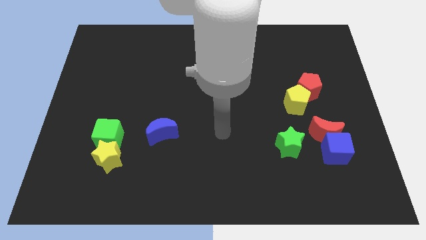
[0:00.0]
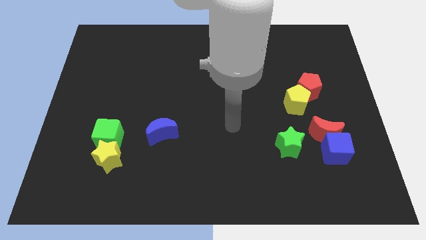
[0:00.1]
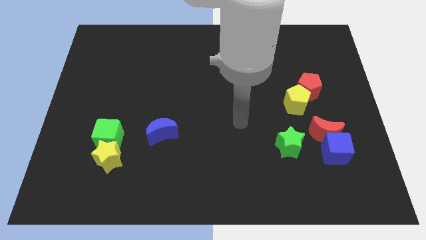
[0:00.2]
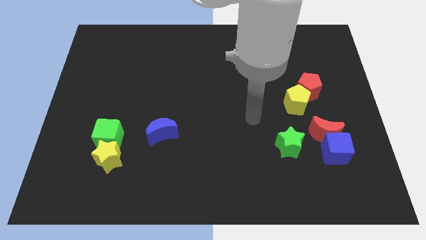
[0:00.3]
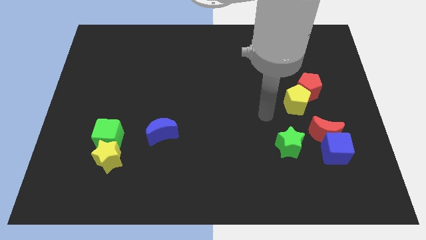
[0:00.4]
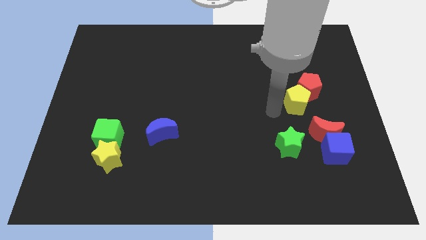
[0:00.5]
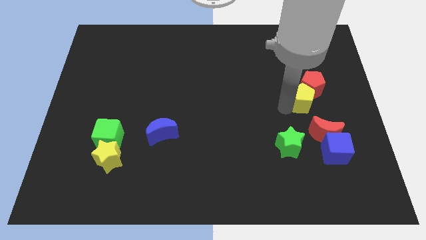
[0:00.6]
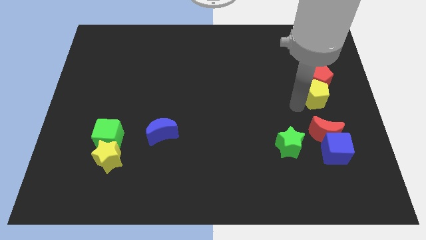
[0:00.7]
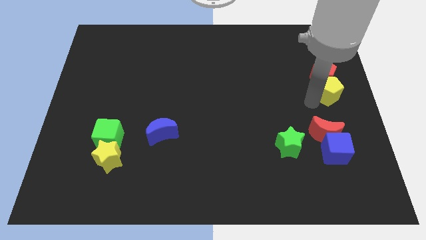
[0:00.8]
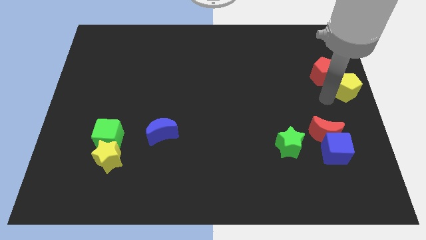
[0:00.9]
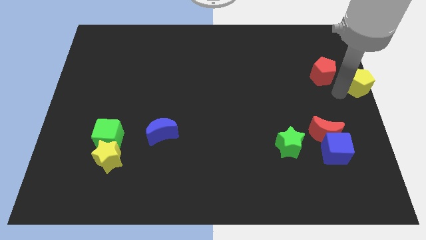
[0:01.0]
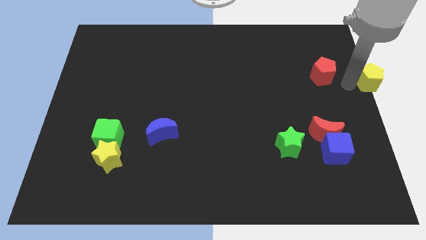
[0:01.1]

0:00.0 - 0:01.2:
move the red pentagon away from the yellow pentagon

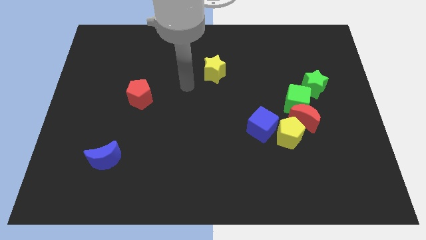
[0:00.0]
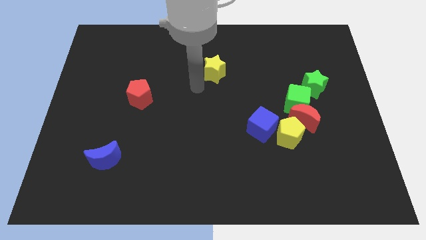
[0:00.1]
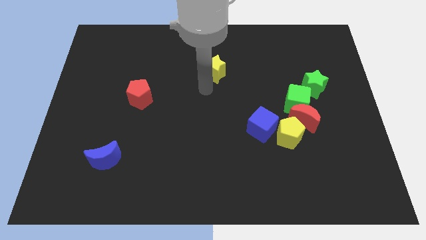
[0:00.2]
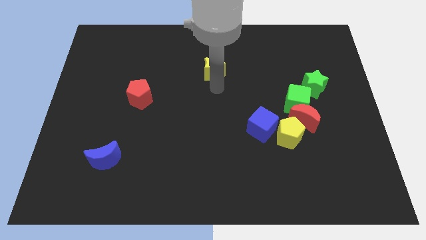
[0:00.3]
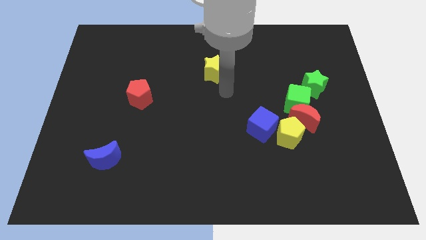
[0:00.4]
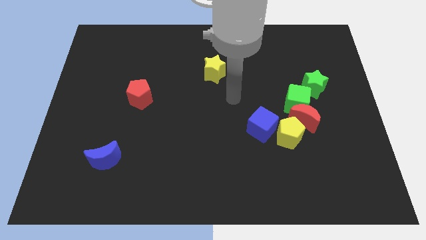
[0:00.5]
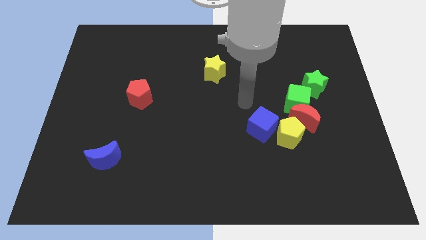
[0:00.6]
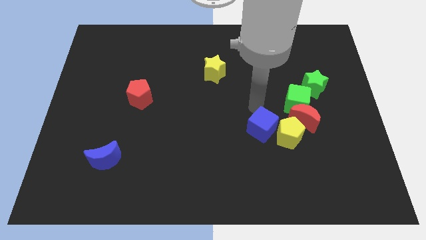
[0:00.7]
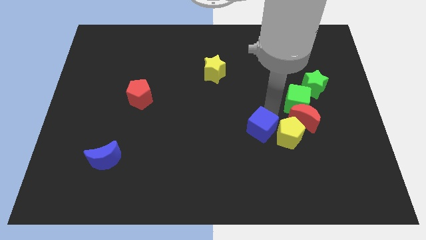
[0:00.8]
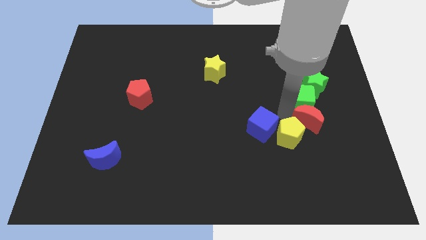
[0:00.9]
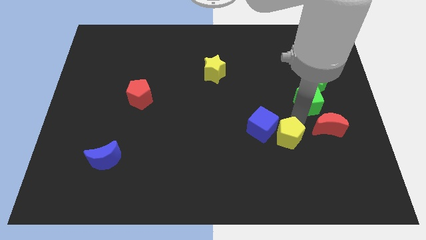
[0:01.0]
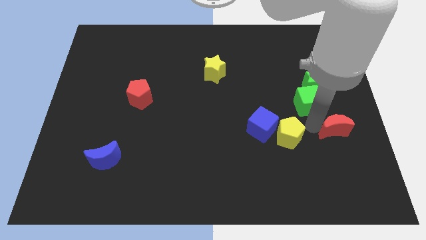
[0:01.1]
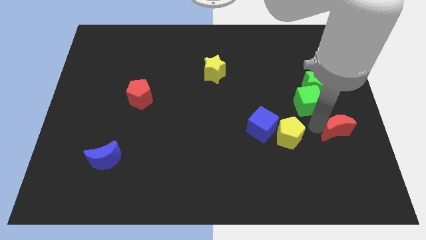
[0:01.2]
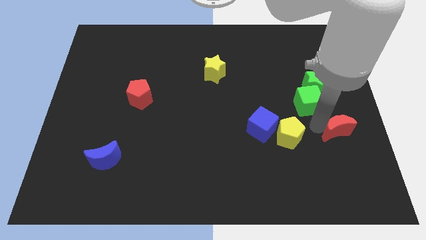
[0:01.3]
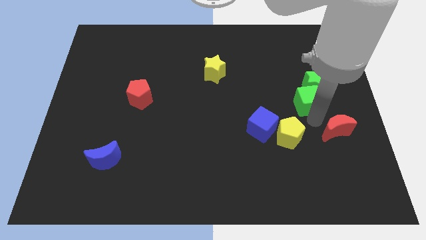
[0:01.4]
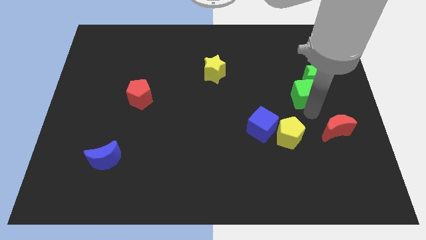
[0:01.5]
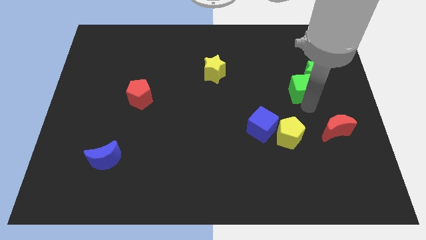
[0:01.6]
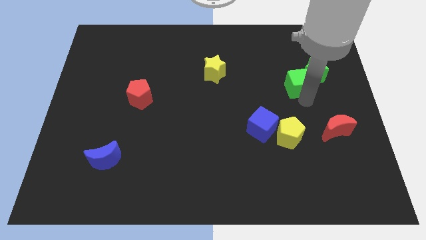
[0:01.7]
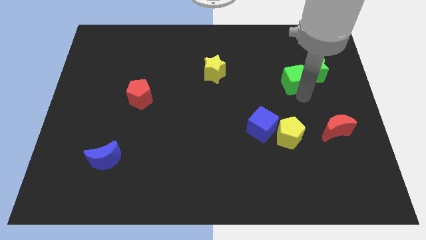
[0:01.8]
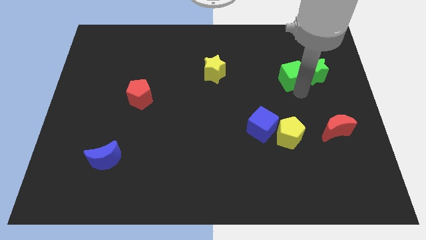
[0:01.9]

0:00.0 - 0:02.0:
move the green cube away from the red moon, green star, and yellow pentagon

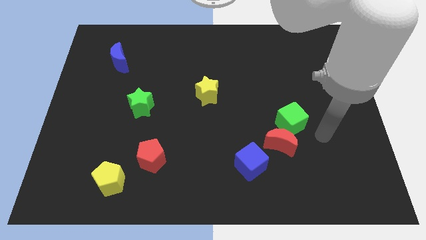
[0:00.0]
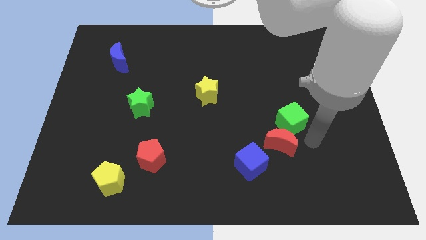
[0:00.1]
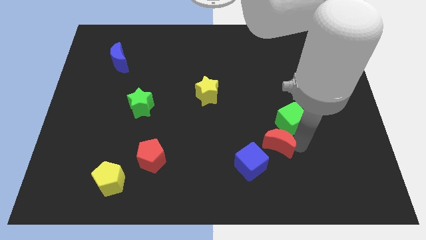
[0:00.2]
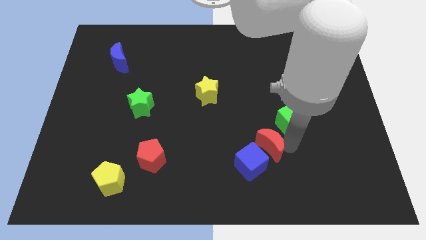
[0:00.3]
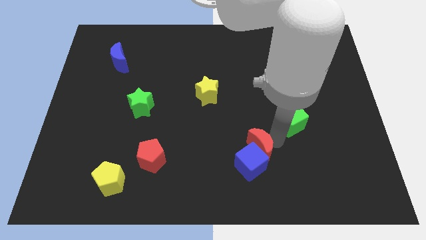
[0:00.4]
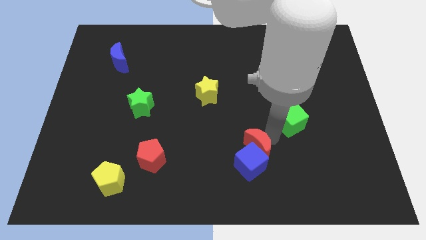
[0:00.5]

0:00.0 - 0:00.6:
separate the green cube from the red moon

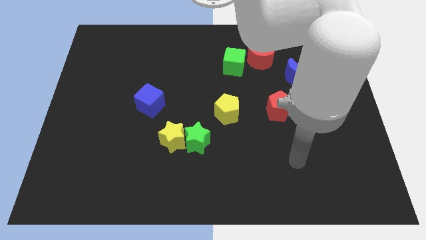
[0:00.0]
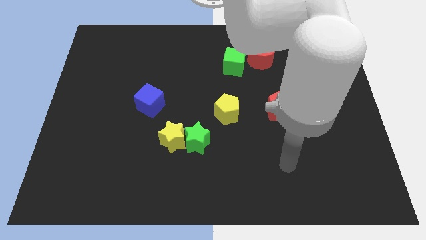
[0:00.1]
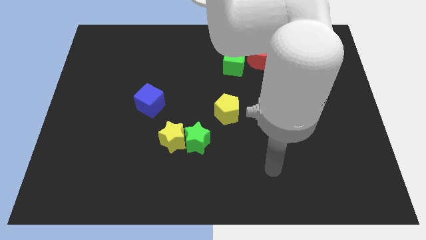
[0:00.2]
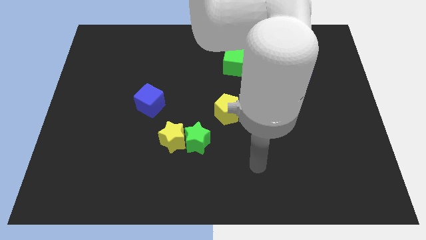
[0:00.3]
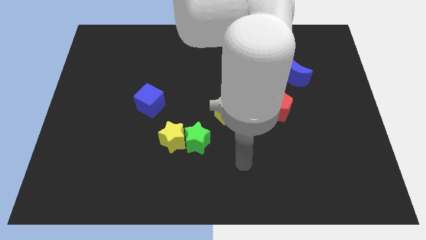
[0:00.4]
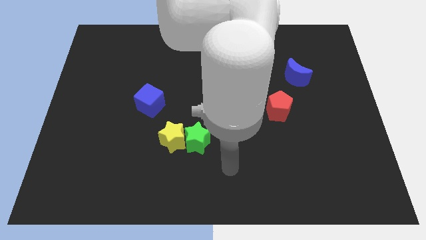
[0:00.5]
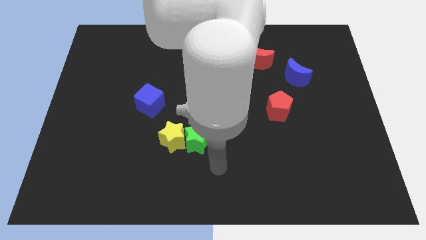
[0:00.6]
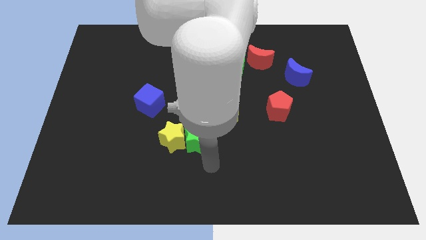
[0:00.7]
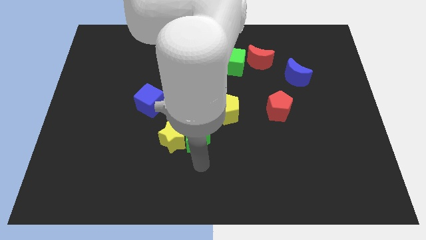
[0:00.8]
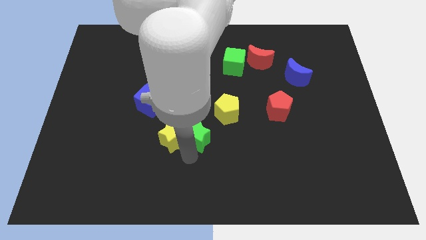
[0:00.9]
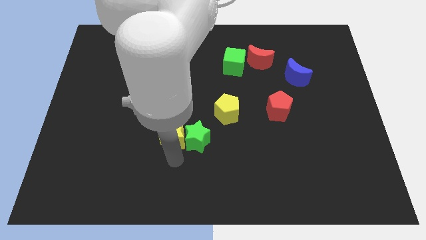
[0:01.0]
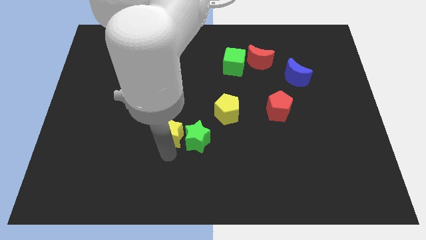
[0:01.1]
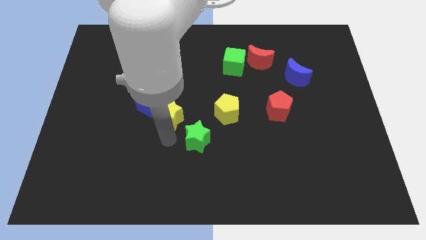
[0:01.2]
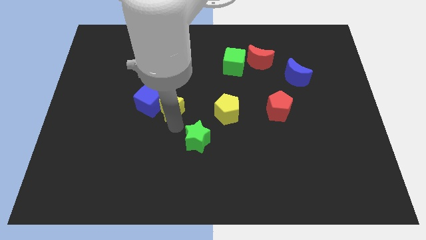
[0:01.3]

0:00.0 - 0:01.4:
separate the green star from the yellow star

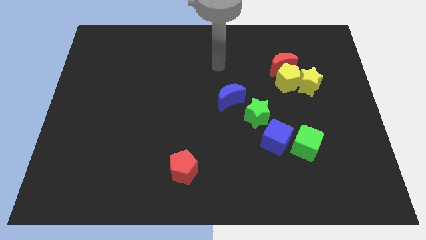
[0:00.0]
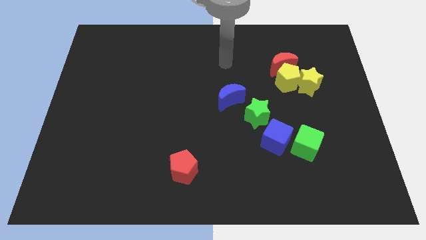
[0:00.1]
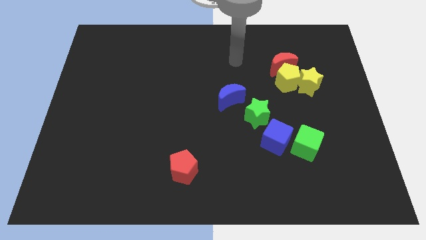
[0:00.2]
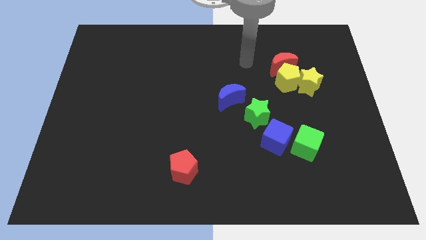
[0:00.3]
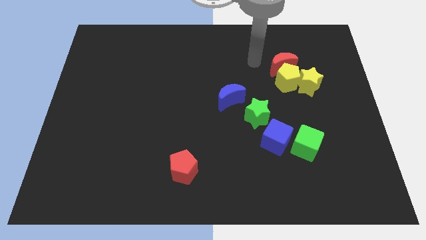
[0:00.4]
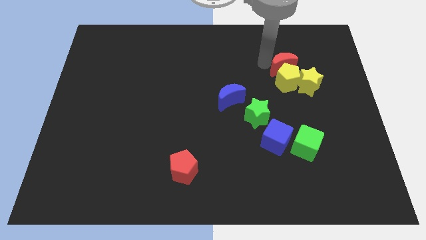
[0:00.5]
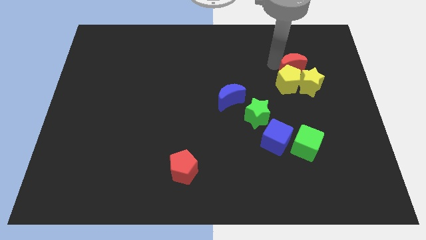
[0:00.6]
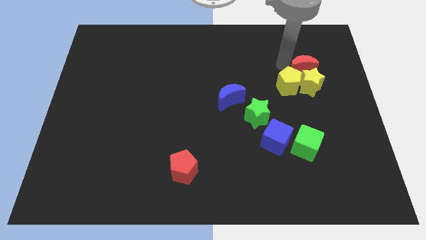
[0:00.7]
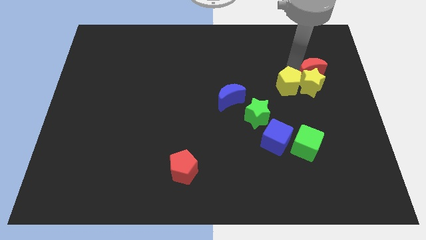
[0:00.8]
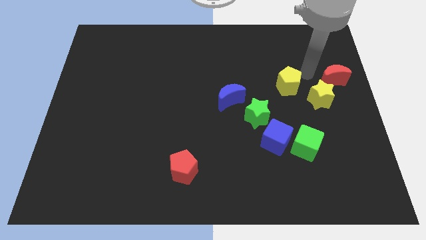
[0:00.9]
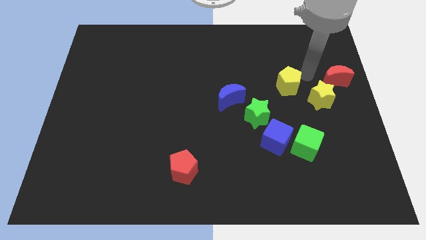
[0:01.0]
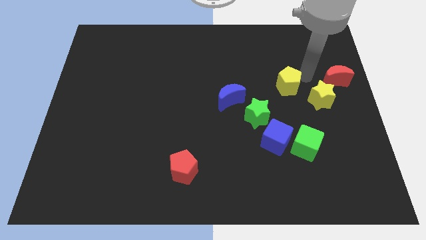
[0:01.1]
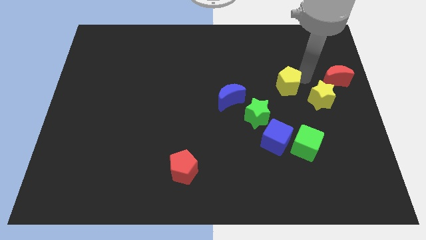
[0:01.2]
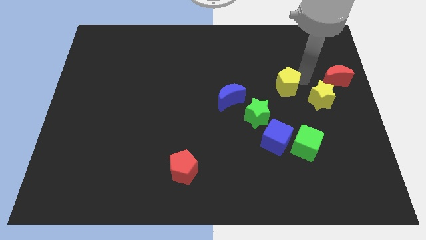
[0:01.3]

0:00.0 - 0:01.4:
separate the yellow pentagon from the red moon and yellow star

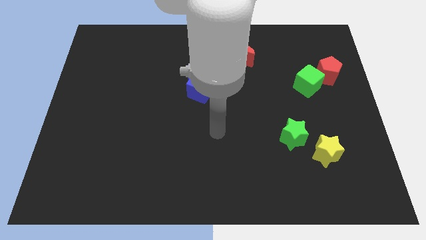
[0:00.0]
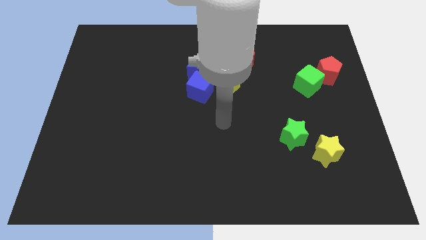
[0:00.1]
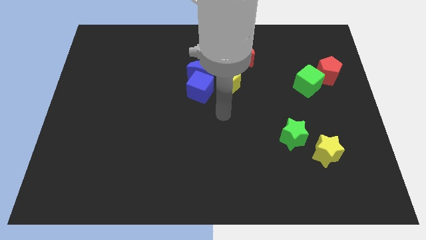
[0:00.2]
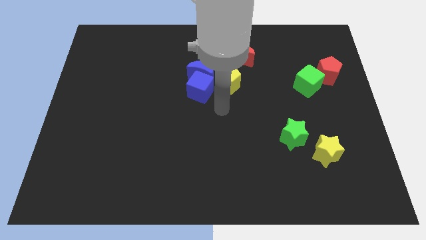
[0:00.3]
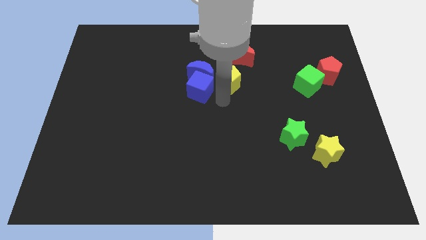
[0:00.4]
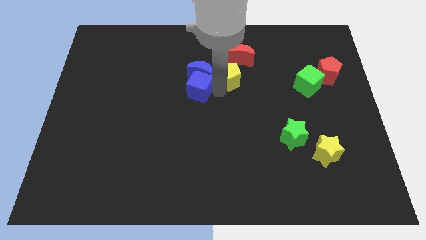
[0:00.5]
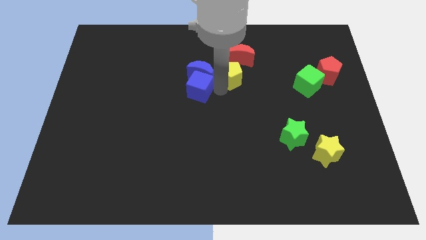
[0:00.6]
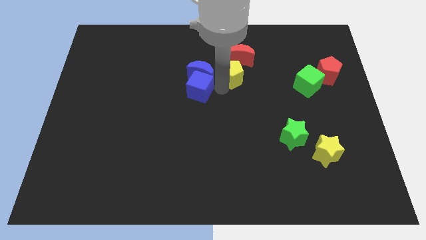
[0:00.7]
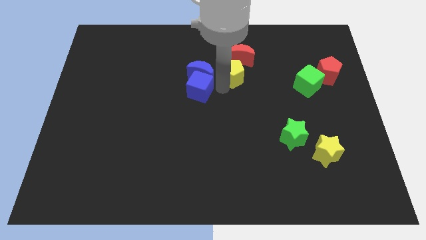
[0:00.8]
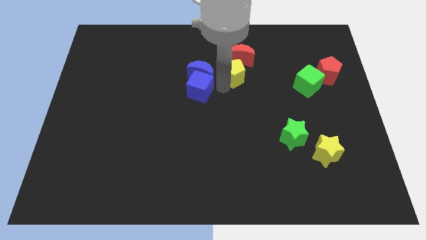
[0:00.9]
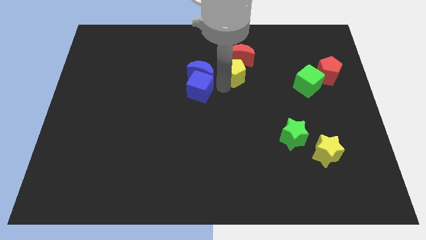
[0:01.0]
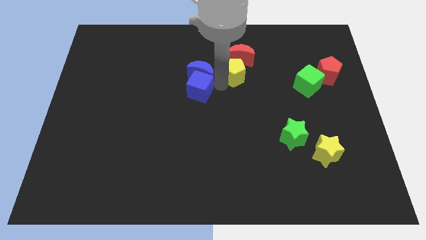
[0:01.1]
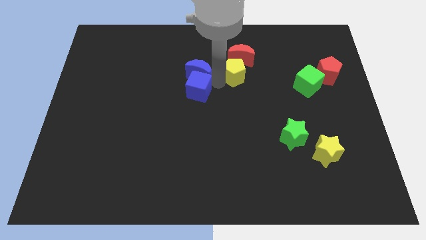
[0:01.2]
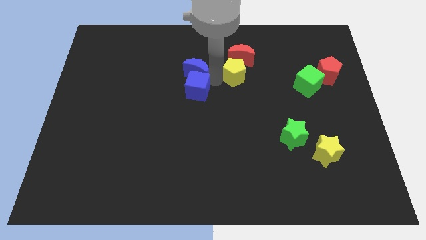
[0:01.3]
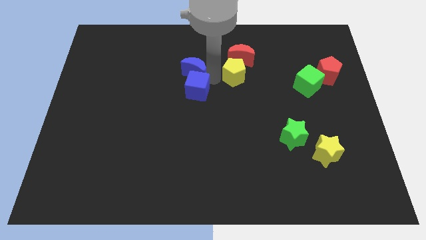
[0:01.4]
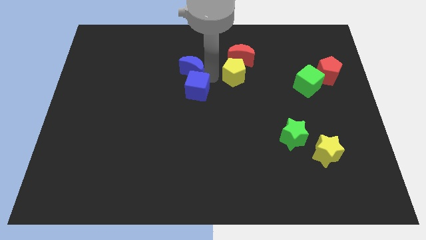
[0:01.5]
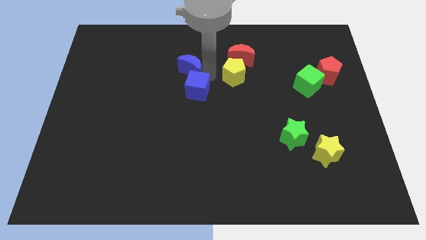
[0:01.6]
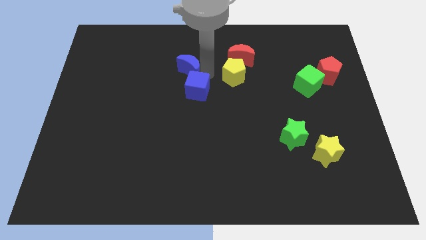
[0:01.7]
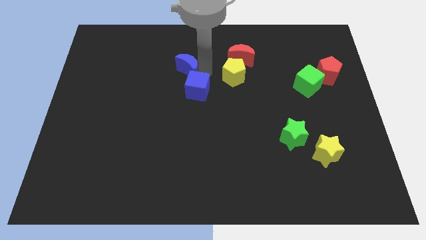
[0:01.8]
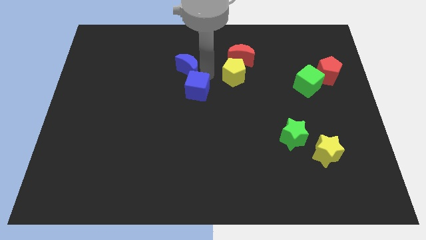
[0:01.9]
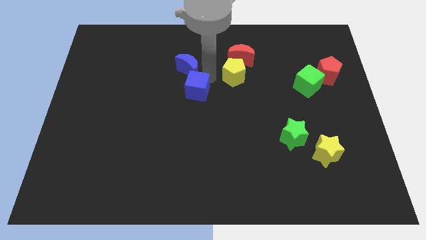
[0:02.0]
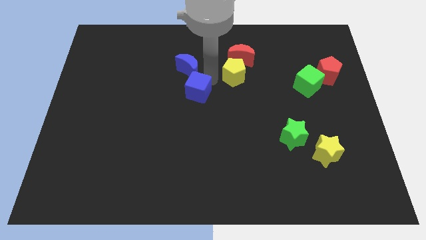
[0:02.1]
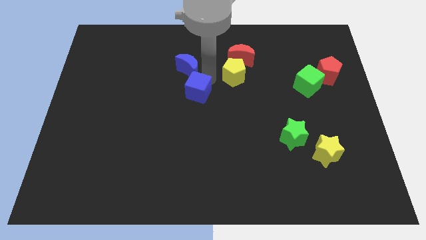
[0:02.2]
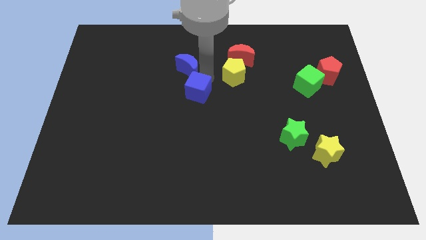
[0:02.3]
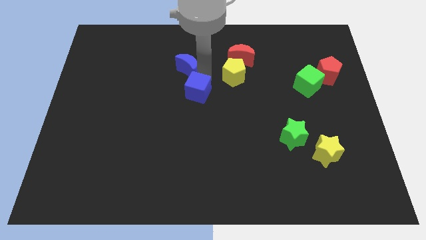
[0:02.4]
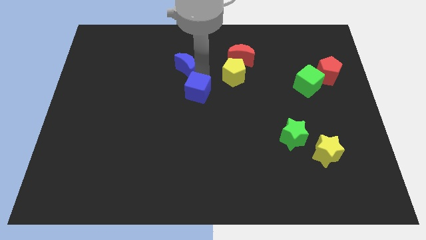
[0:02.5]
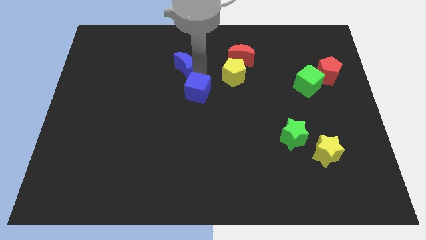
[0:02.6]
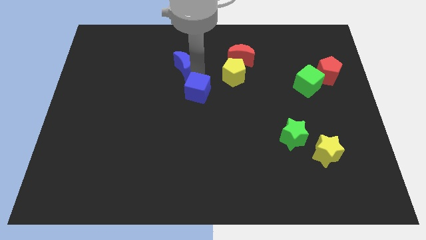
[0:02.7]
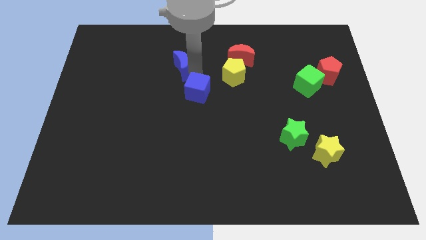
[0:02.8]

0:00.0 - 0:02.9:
pull the blue moon apart from the blue cube and yellow pentagon

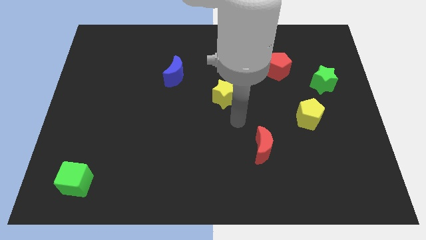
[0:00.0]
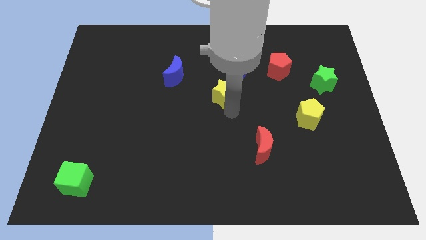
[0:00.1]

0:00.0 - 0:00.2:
move the red pentagon away from the blue cube
